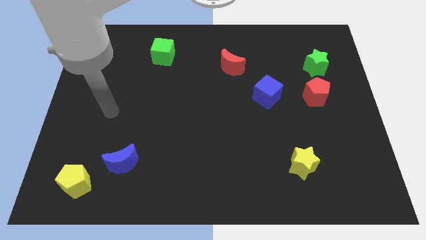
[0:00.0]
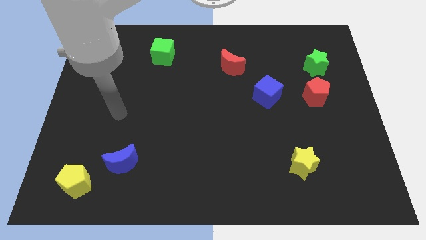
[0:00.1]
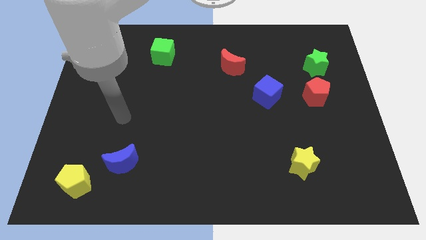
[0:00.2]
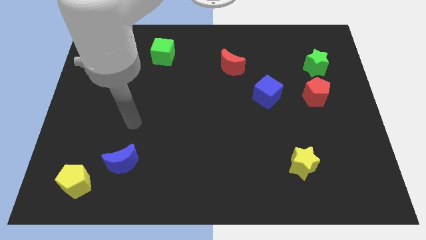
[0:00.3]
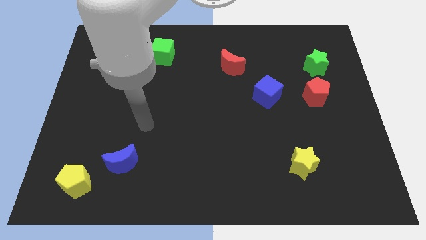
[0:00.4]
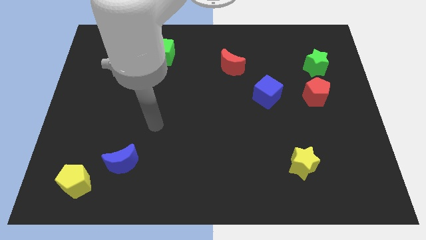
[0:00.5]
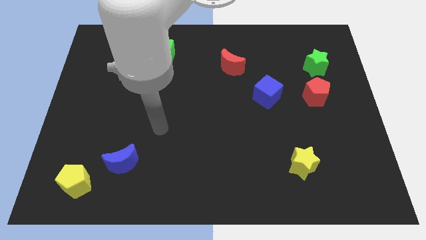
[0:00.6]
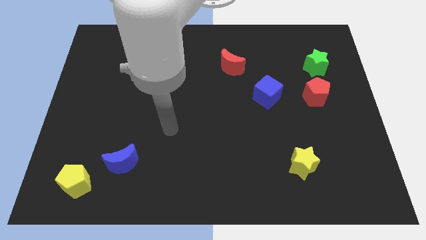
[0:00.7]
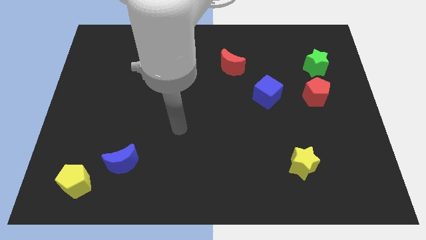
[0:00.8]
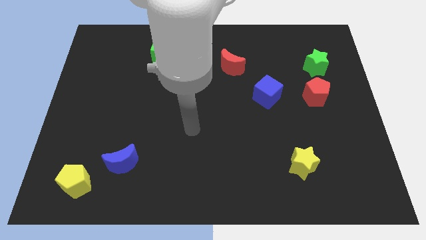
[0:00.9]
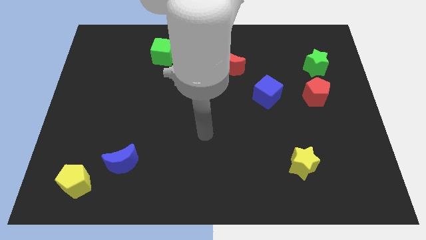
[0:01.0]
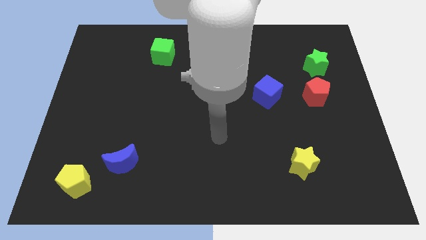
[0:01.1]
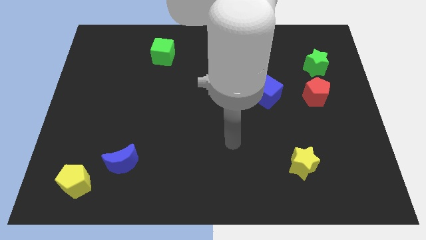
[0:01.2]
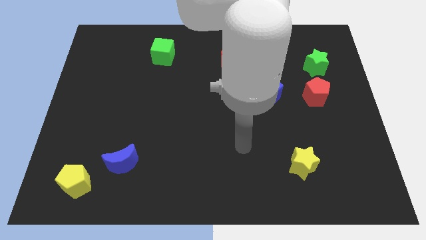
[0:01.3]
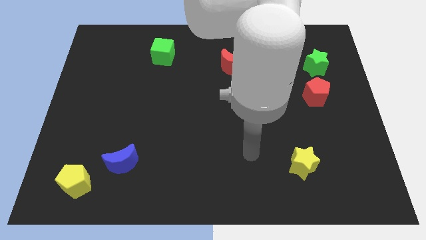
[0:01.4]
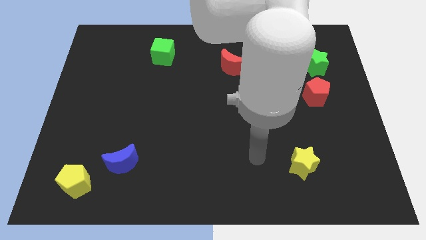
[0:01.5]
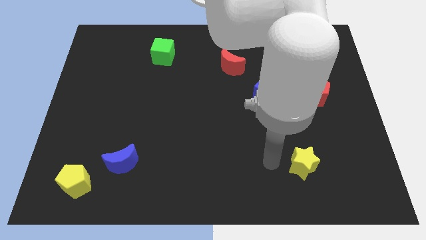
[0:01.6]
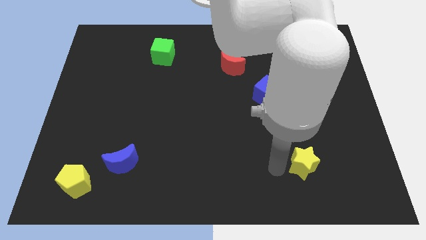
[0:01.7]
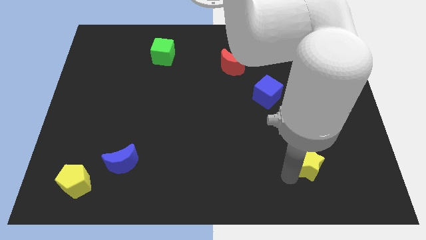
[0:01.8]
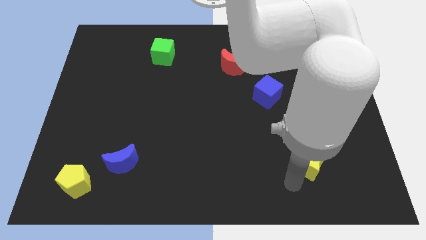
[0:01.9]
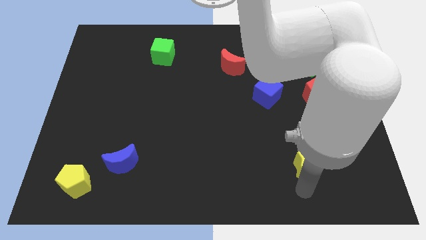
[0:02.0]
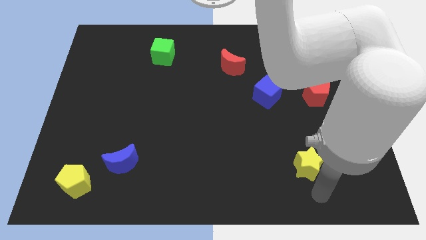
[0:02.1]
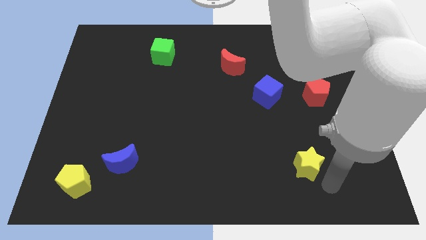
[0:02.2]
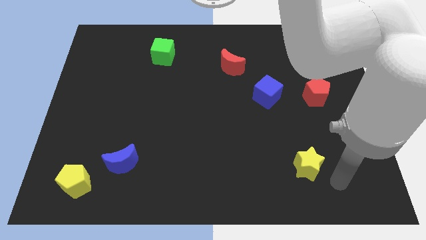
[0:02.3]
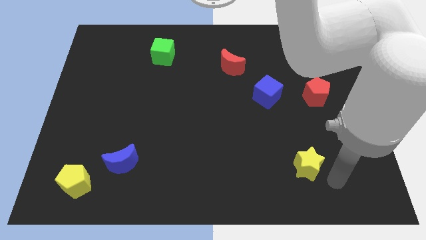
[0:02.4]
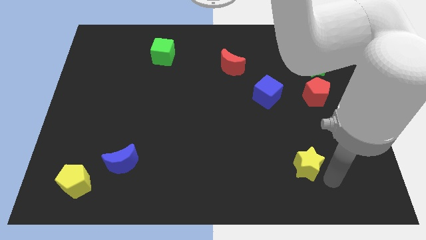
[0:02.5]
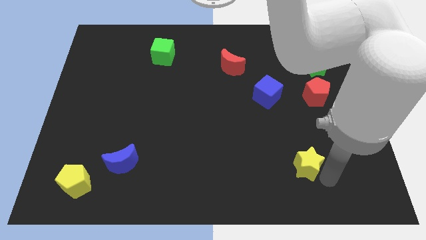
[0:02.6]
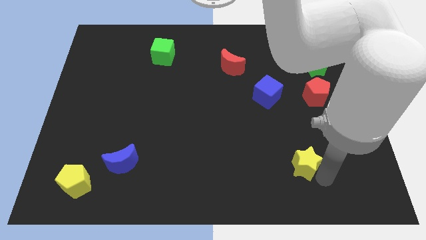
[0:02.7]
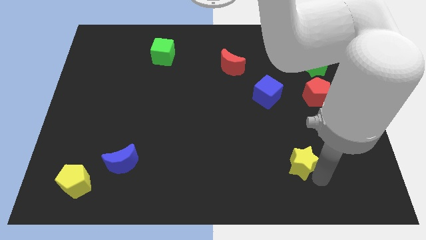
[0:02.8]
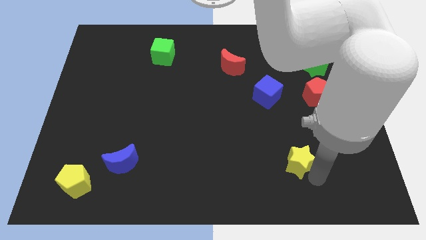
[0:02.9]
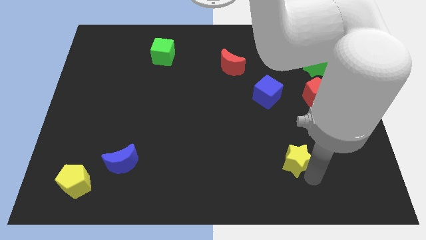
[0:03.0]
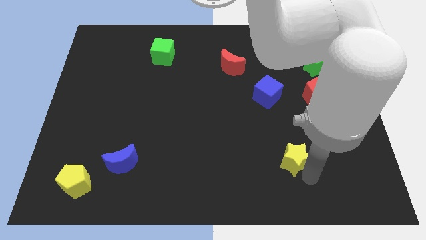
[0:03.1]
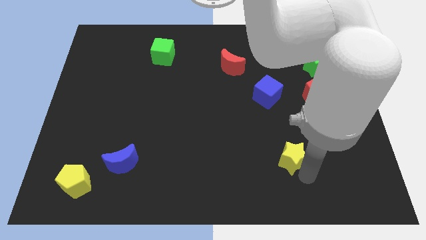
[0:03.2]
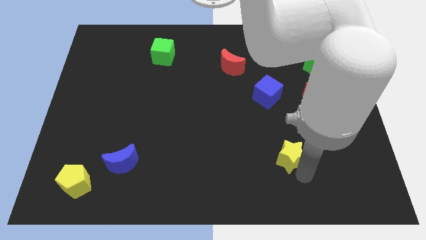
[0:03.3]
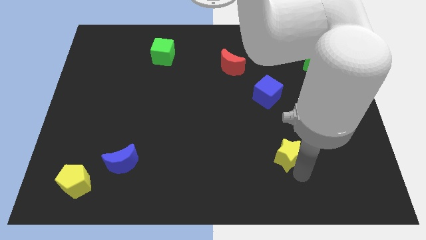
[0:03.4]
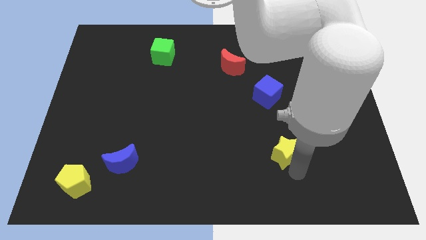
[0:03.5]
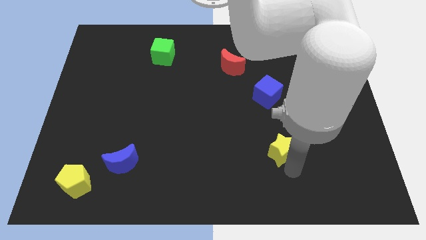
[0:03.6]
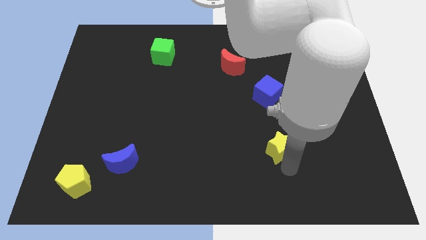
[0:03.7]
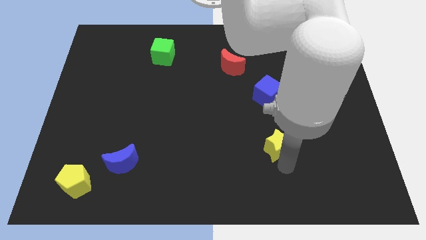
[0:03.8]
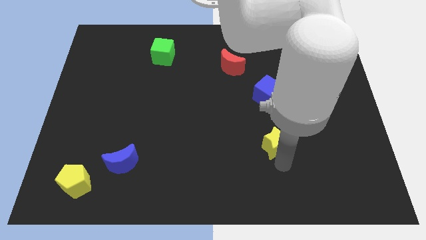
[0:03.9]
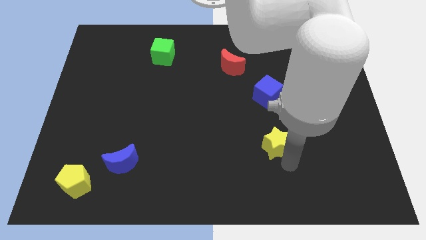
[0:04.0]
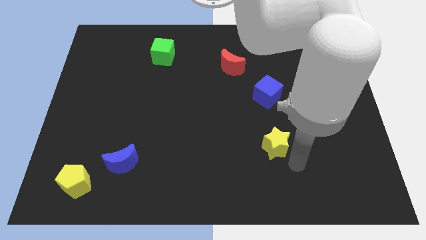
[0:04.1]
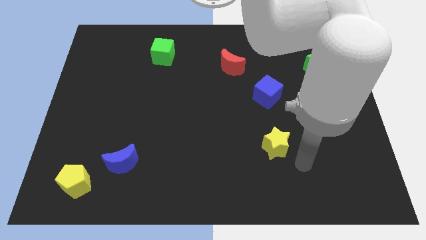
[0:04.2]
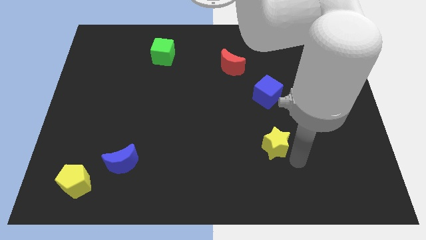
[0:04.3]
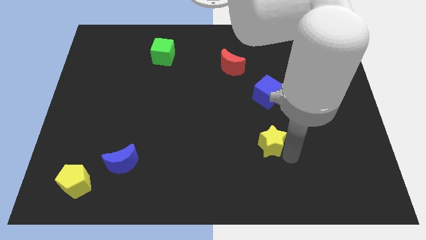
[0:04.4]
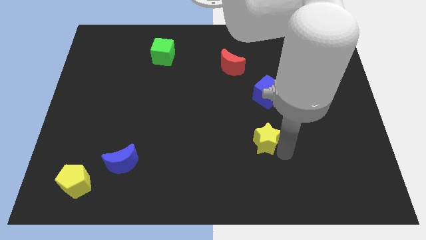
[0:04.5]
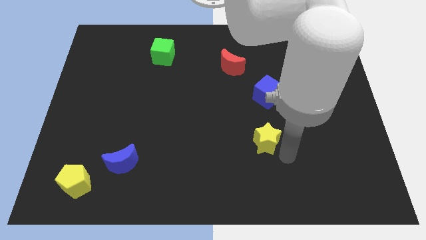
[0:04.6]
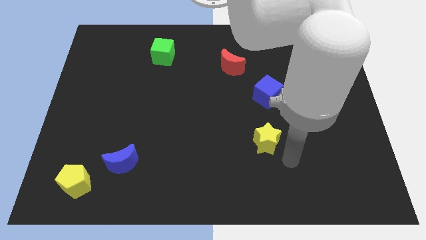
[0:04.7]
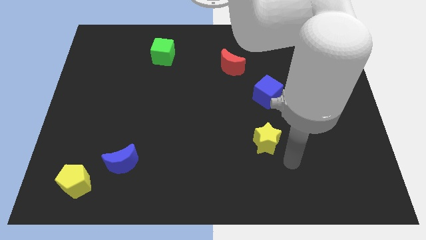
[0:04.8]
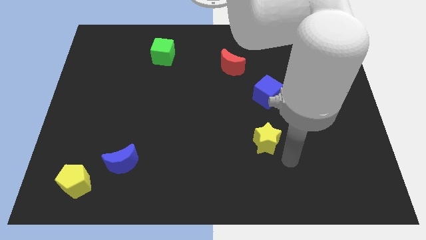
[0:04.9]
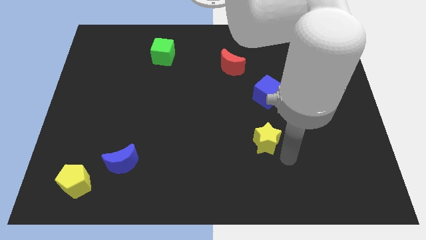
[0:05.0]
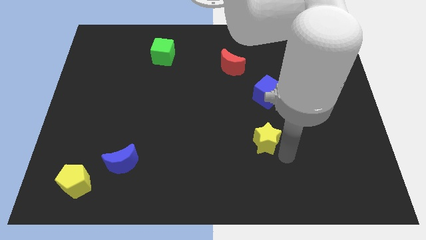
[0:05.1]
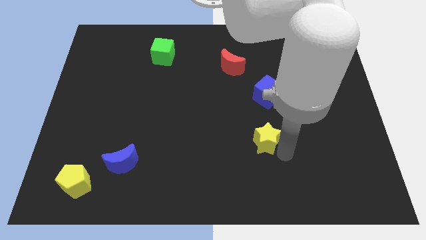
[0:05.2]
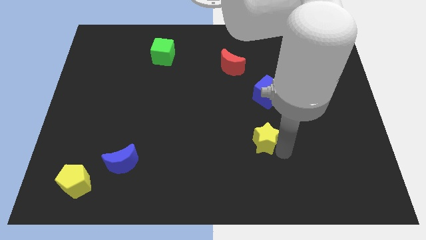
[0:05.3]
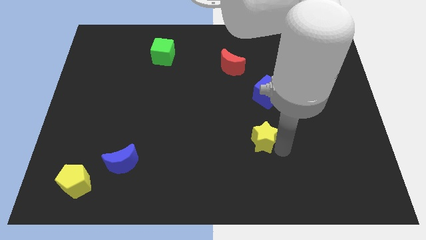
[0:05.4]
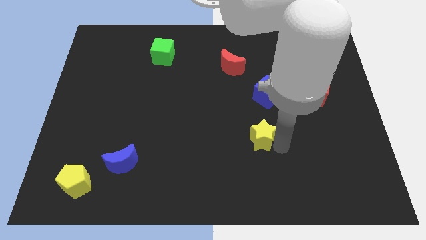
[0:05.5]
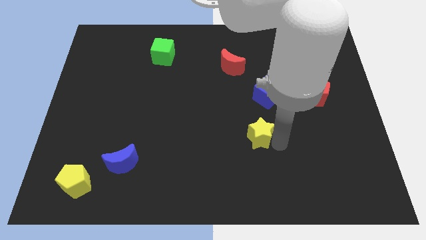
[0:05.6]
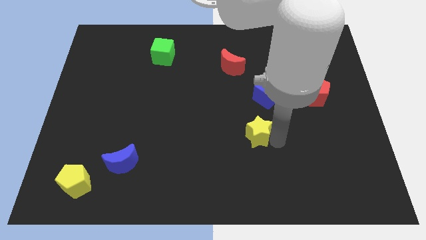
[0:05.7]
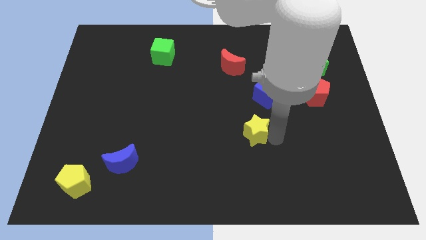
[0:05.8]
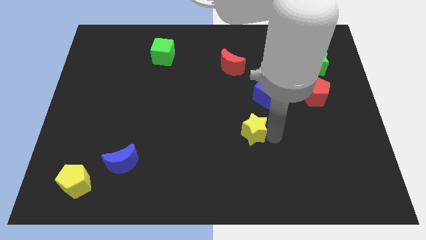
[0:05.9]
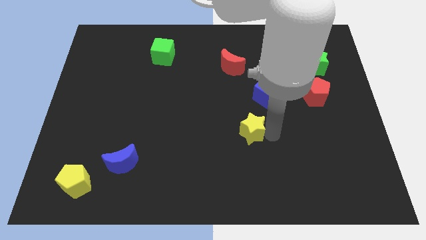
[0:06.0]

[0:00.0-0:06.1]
slide the yellow star to the middle
